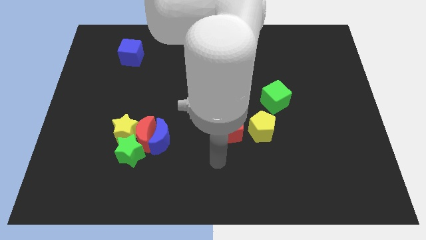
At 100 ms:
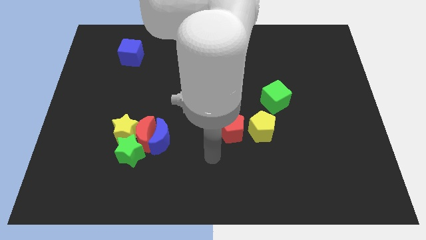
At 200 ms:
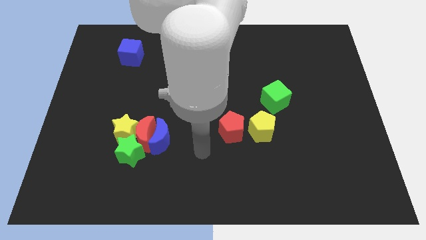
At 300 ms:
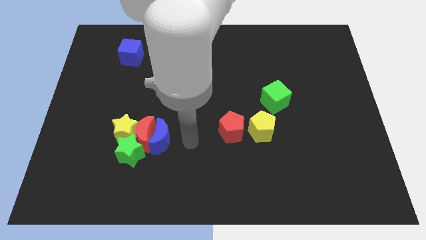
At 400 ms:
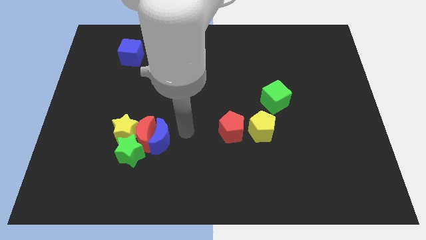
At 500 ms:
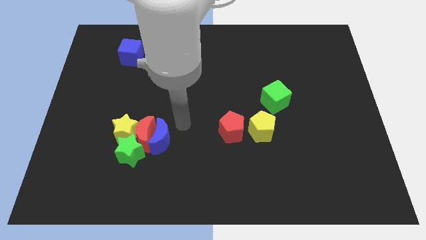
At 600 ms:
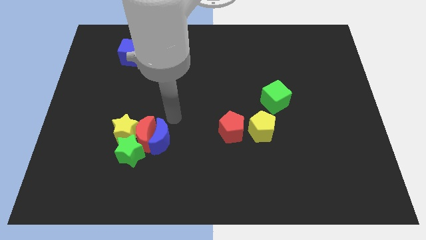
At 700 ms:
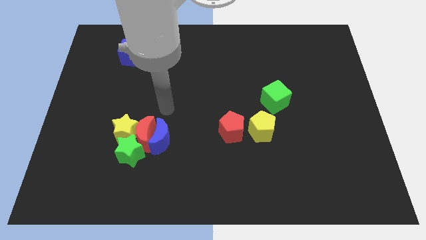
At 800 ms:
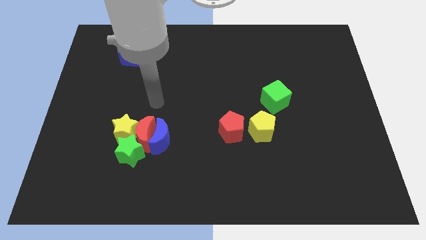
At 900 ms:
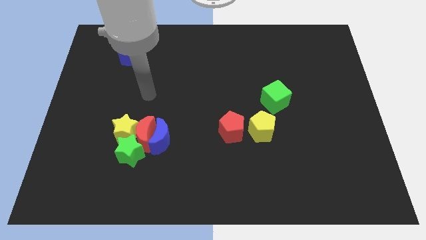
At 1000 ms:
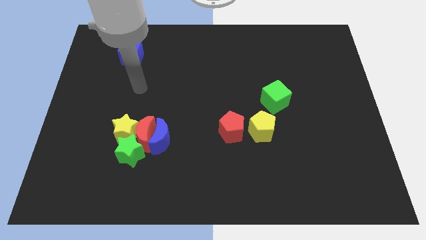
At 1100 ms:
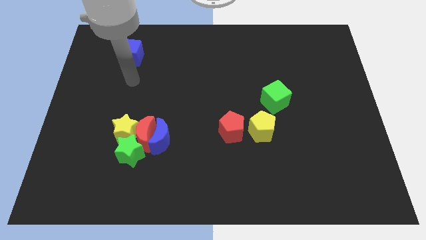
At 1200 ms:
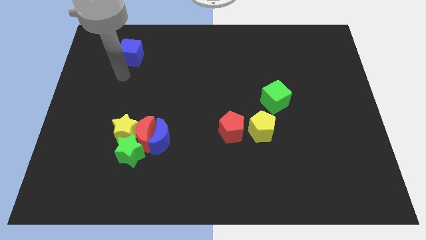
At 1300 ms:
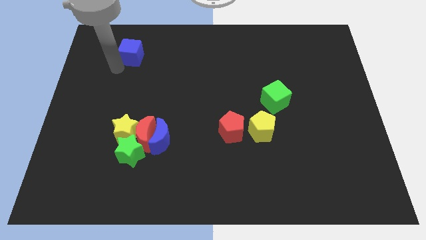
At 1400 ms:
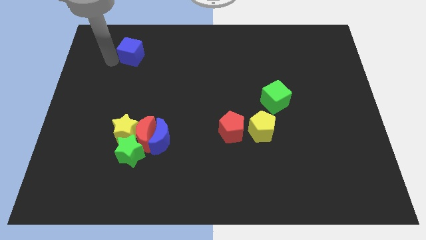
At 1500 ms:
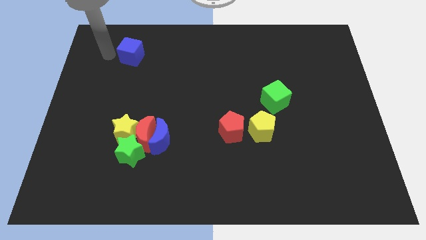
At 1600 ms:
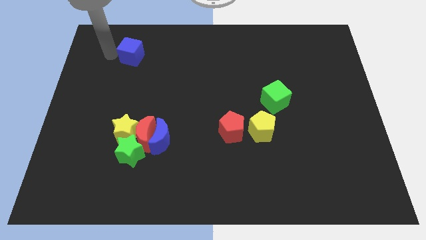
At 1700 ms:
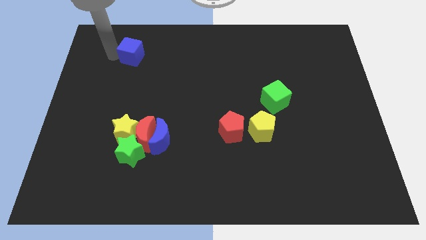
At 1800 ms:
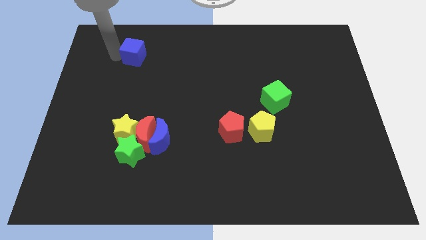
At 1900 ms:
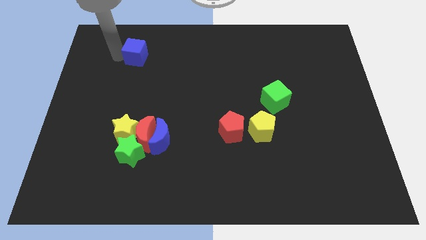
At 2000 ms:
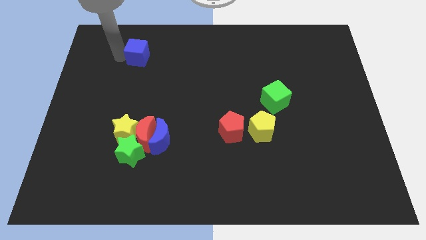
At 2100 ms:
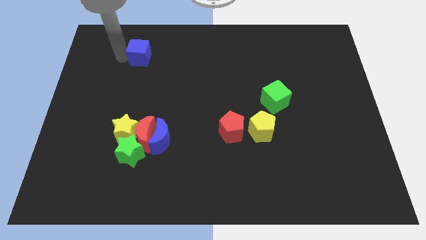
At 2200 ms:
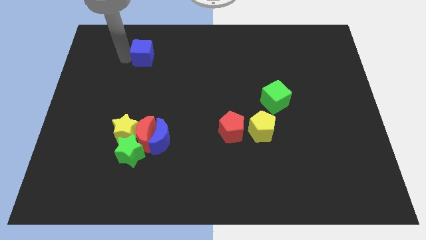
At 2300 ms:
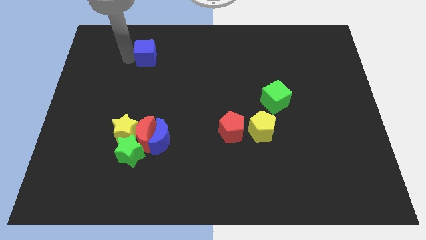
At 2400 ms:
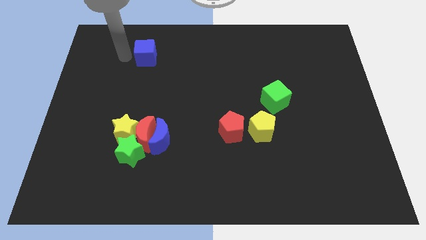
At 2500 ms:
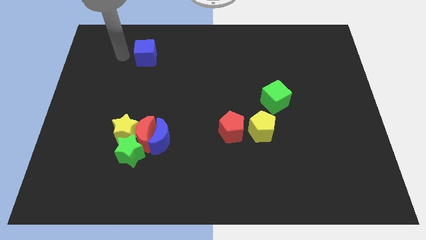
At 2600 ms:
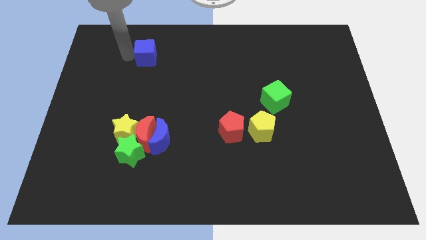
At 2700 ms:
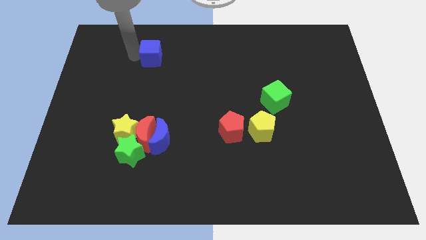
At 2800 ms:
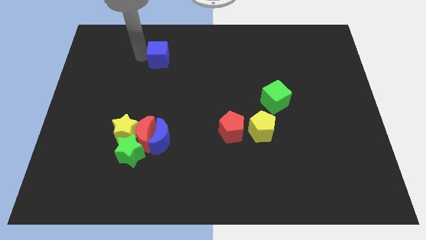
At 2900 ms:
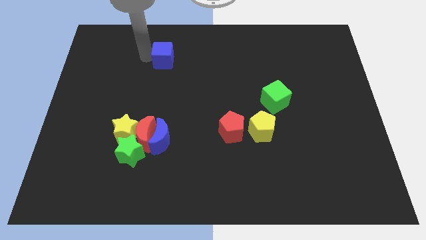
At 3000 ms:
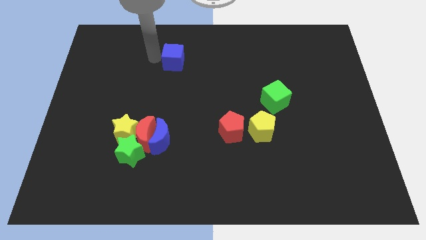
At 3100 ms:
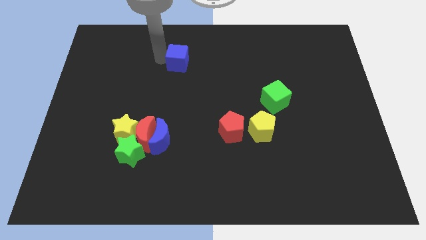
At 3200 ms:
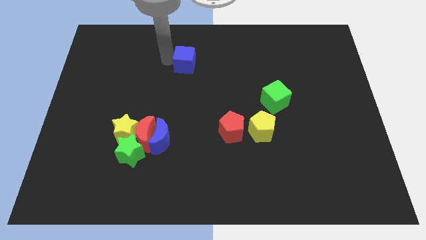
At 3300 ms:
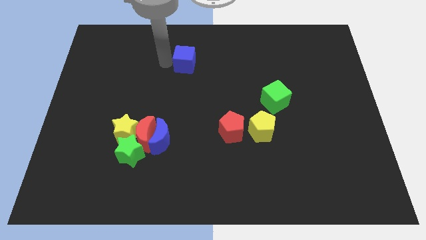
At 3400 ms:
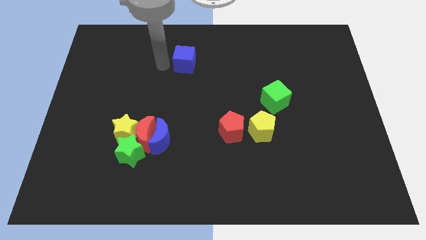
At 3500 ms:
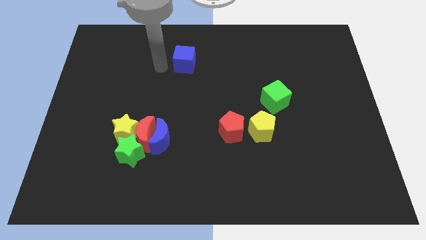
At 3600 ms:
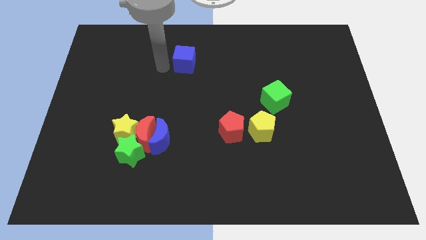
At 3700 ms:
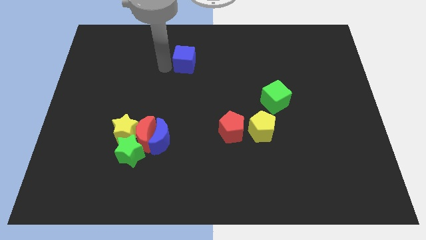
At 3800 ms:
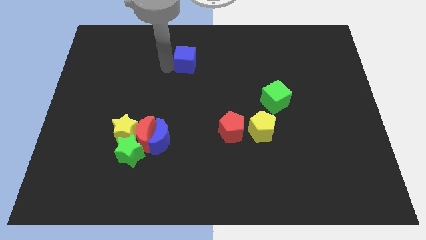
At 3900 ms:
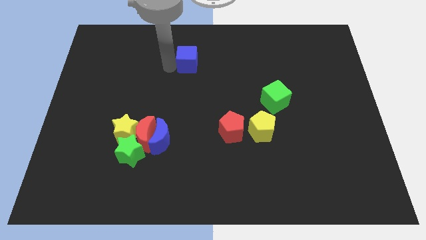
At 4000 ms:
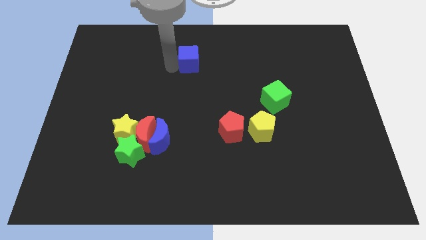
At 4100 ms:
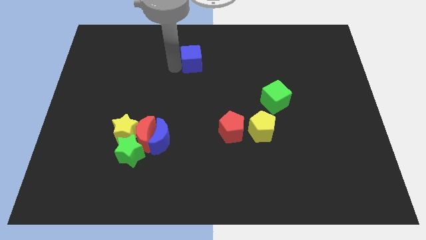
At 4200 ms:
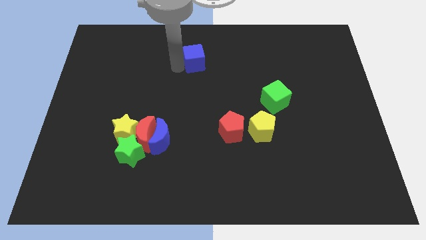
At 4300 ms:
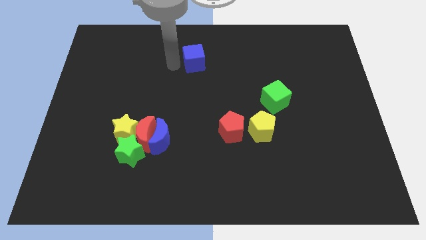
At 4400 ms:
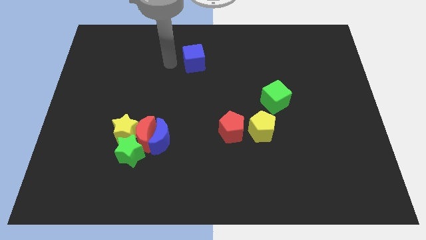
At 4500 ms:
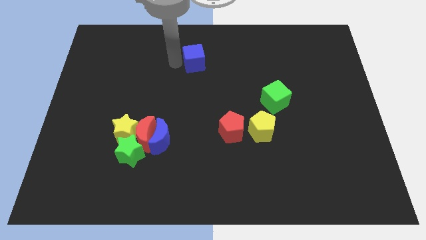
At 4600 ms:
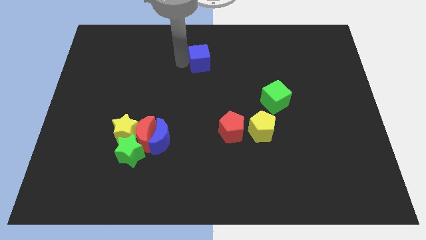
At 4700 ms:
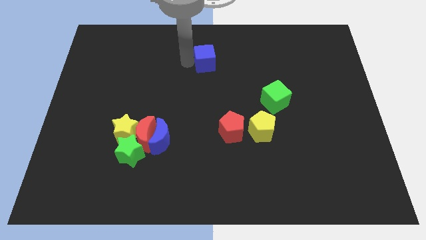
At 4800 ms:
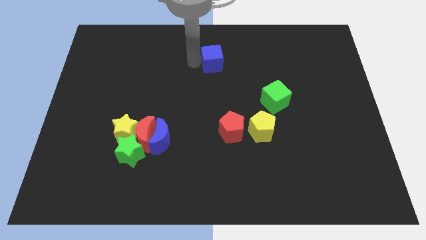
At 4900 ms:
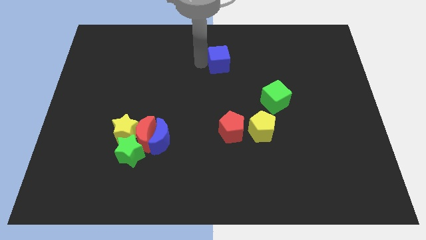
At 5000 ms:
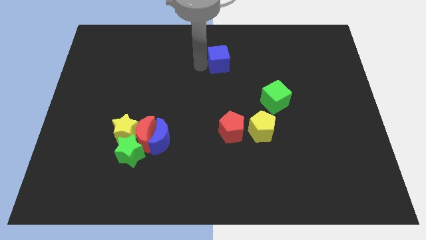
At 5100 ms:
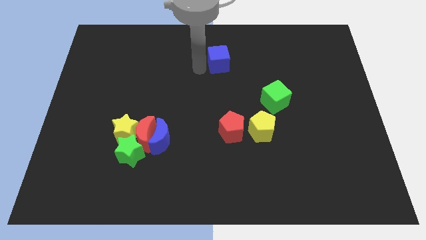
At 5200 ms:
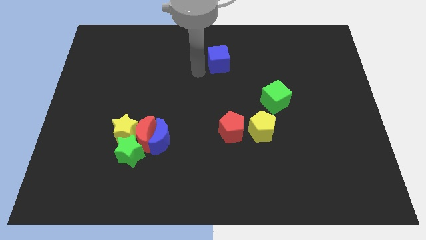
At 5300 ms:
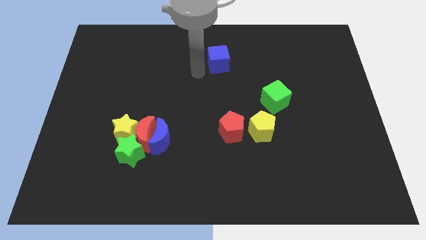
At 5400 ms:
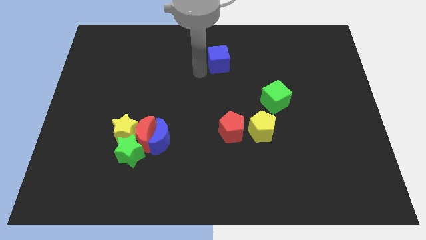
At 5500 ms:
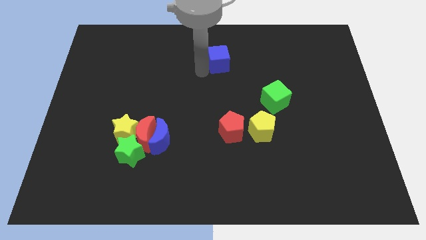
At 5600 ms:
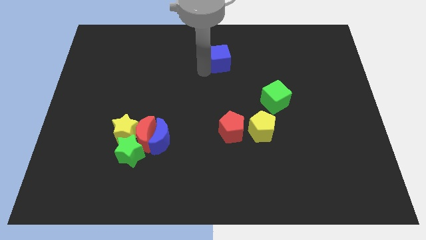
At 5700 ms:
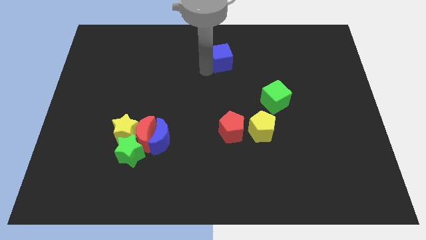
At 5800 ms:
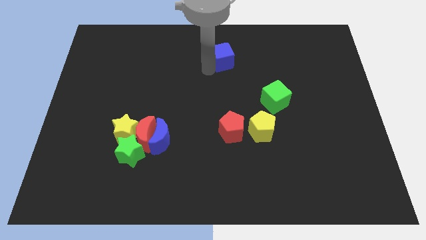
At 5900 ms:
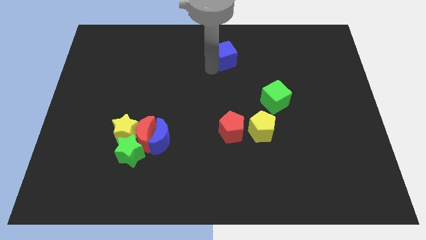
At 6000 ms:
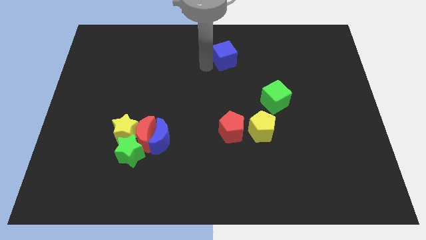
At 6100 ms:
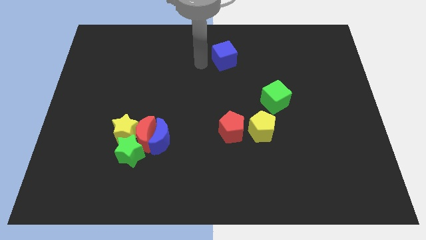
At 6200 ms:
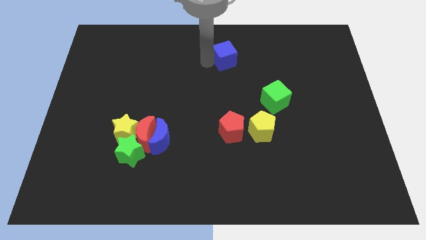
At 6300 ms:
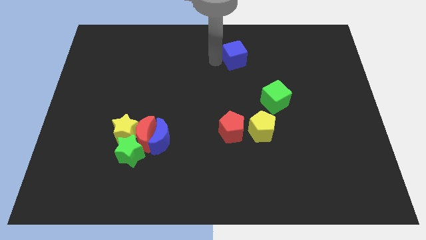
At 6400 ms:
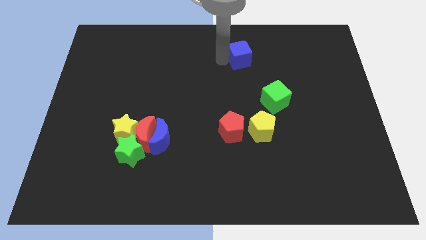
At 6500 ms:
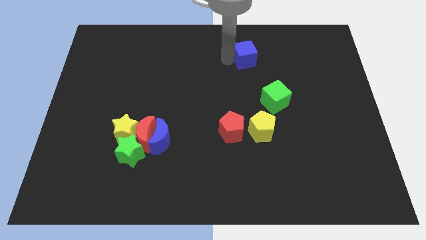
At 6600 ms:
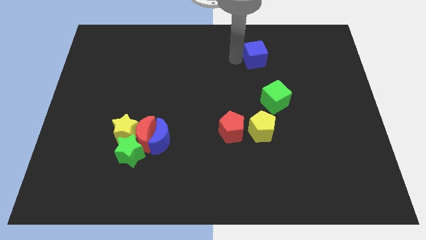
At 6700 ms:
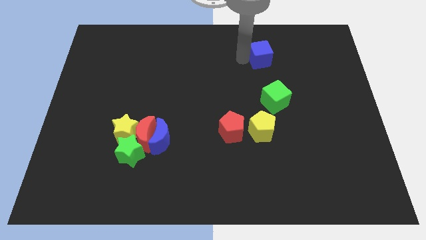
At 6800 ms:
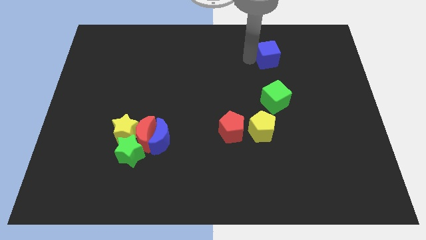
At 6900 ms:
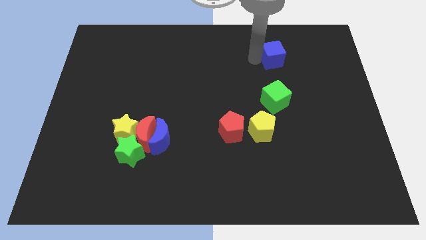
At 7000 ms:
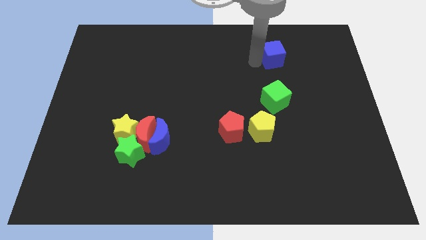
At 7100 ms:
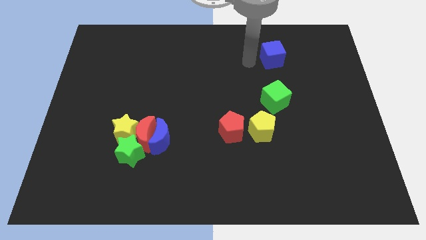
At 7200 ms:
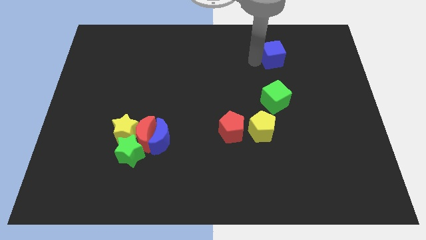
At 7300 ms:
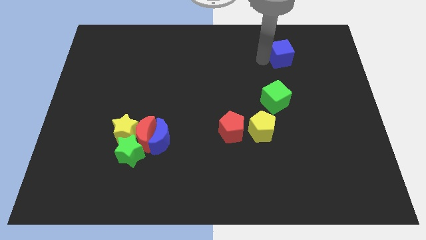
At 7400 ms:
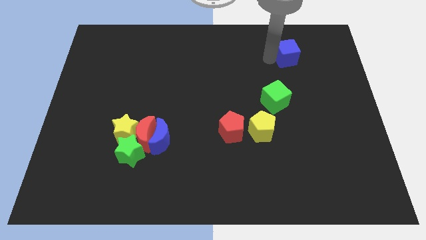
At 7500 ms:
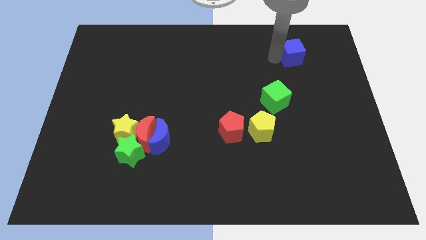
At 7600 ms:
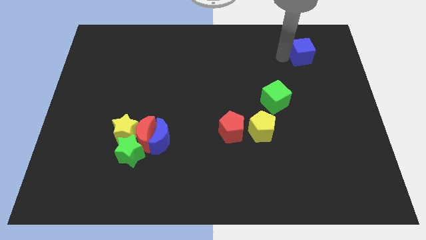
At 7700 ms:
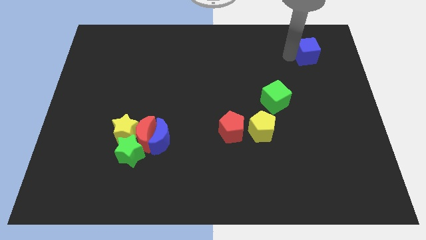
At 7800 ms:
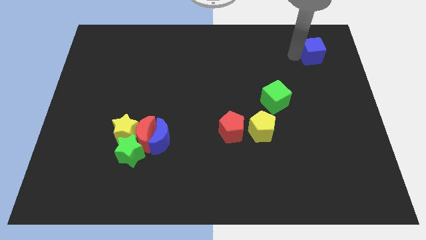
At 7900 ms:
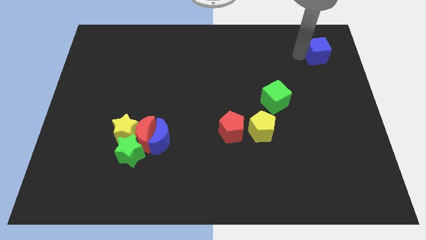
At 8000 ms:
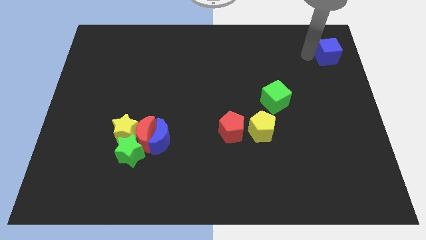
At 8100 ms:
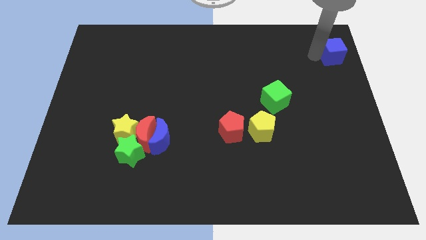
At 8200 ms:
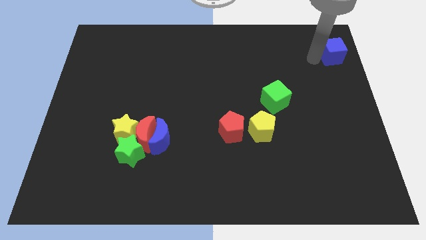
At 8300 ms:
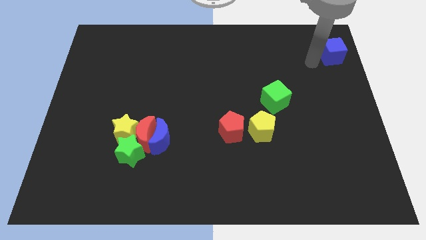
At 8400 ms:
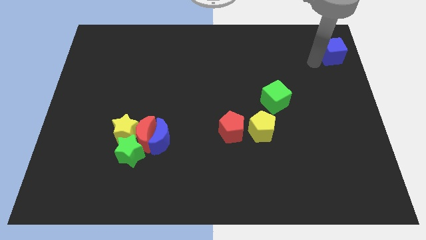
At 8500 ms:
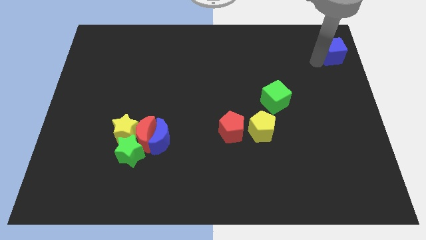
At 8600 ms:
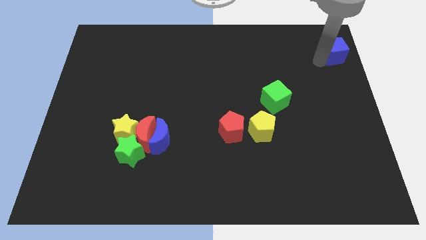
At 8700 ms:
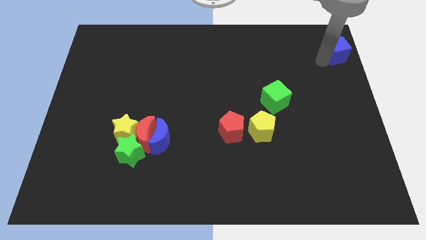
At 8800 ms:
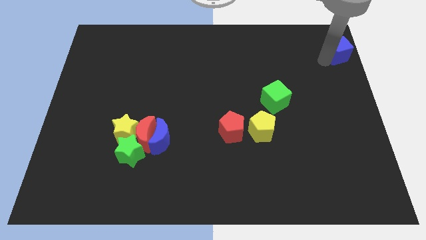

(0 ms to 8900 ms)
push the blue cube to the top right
